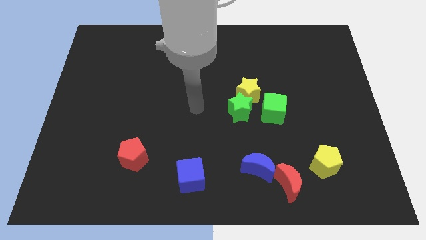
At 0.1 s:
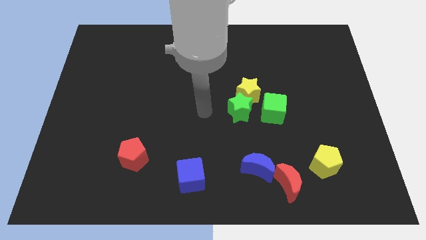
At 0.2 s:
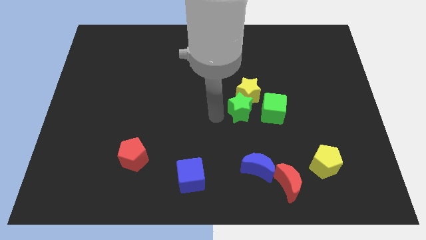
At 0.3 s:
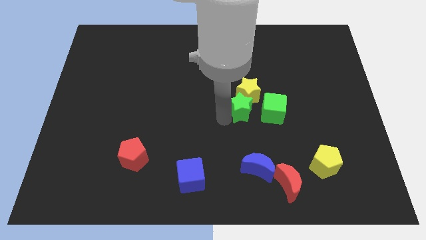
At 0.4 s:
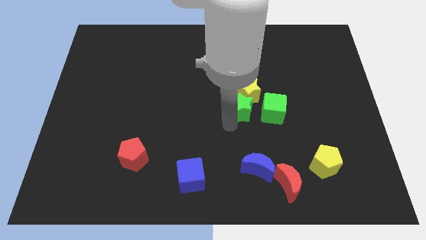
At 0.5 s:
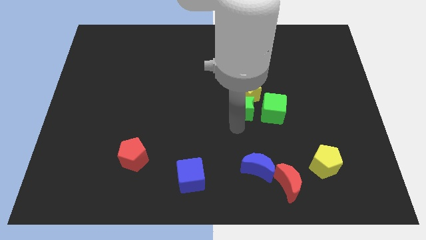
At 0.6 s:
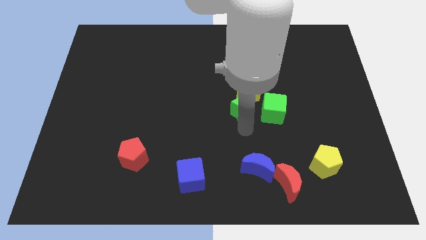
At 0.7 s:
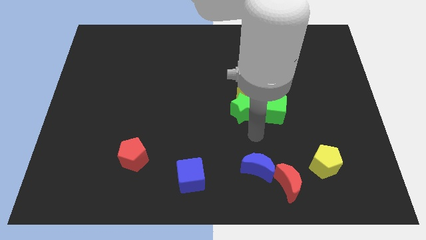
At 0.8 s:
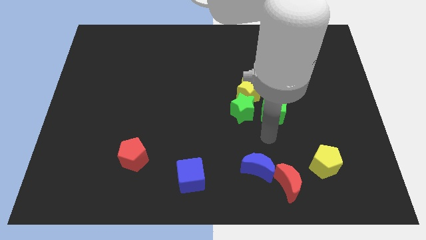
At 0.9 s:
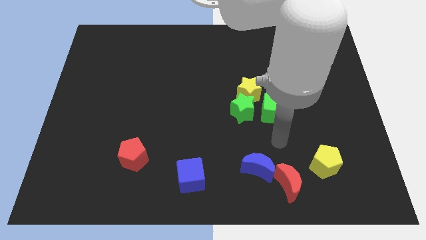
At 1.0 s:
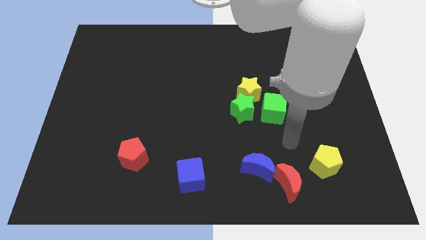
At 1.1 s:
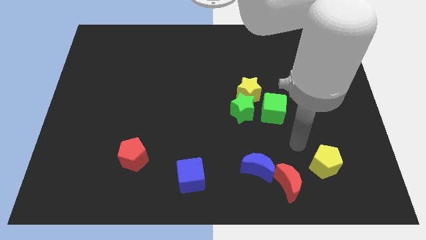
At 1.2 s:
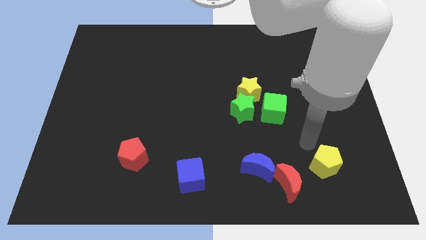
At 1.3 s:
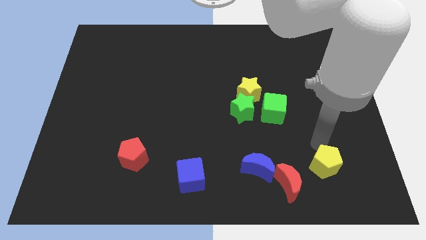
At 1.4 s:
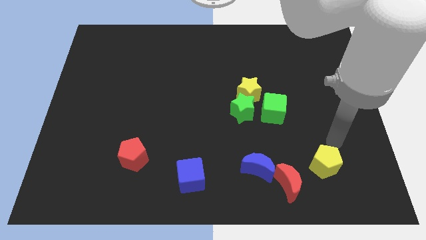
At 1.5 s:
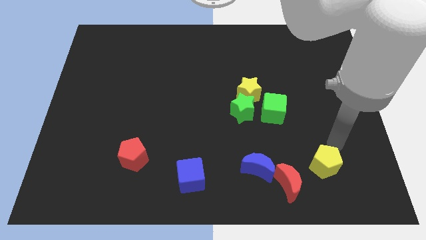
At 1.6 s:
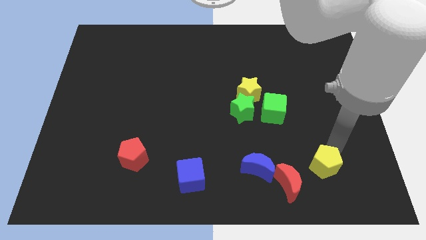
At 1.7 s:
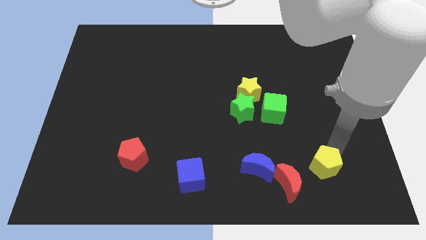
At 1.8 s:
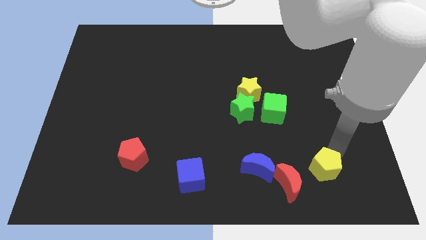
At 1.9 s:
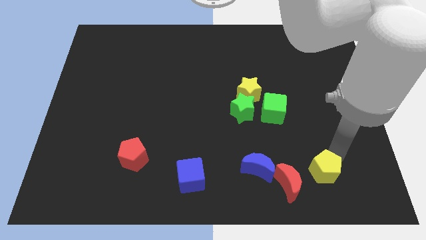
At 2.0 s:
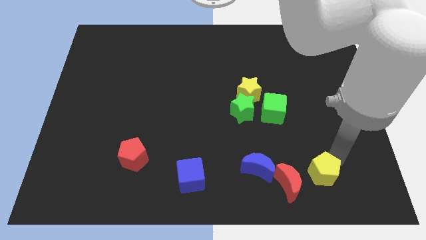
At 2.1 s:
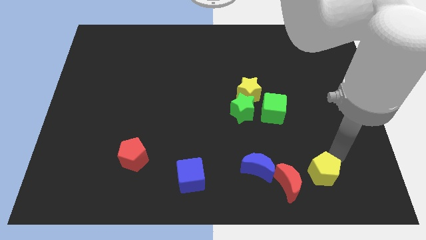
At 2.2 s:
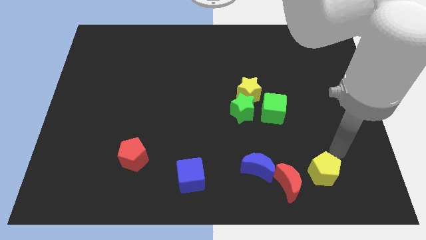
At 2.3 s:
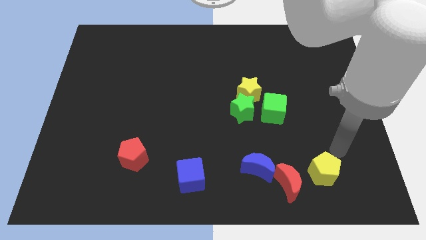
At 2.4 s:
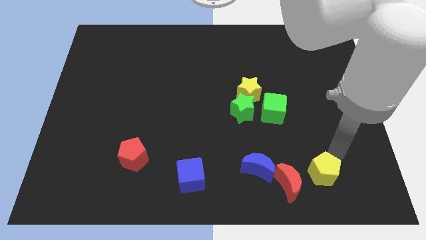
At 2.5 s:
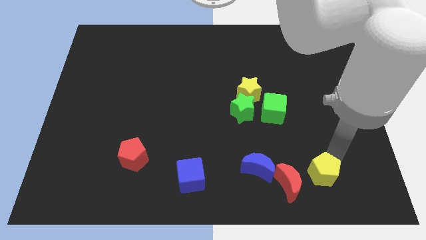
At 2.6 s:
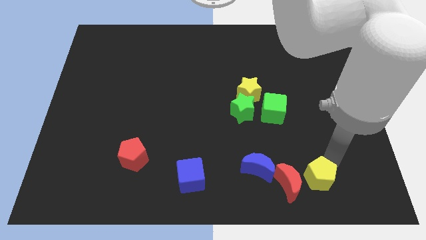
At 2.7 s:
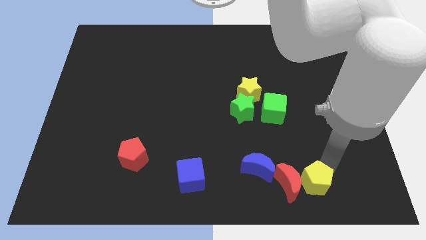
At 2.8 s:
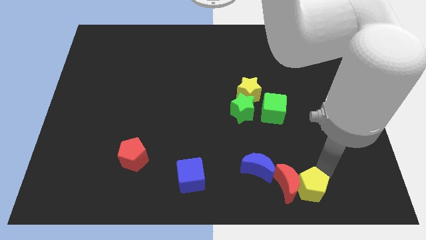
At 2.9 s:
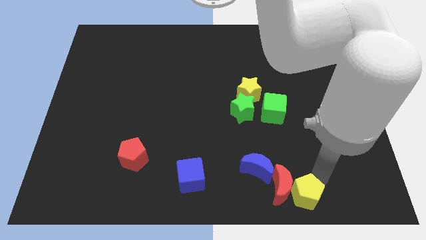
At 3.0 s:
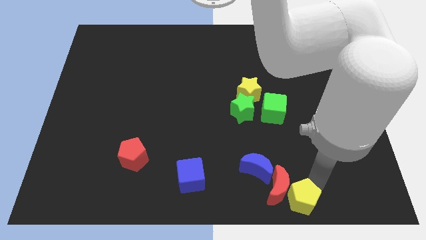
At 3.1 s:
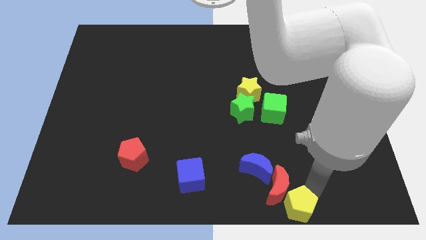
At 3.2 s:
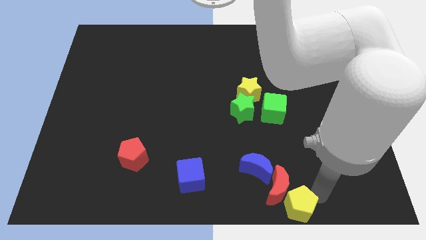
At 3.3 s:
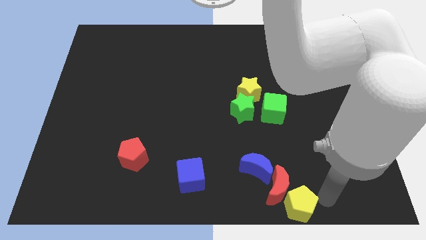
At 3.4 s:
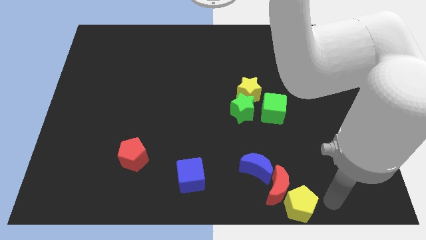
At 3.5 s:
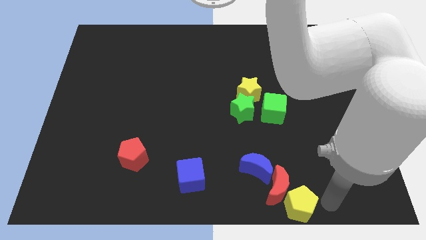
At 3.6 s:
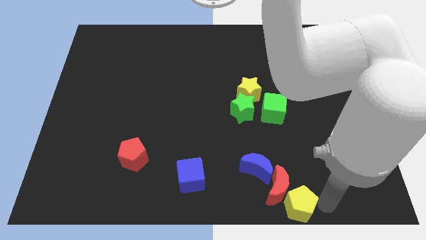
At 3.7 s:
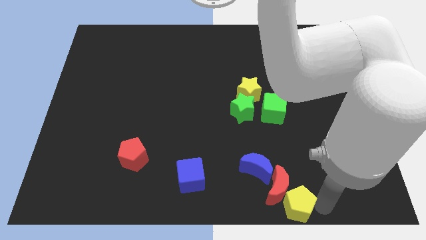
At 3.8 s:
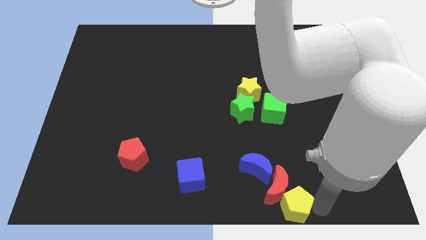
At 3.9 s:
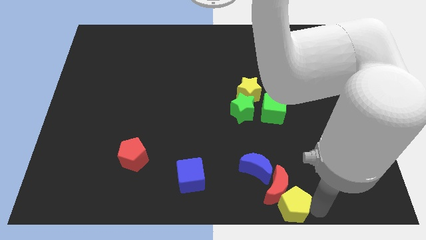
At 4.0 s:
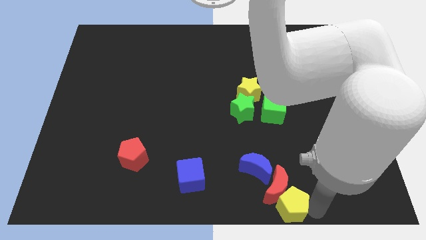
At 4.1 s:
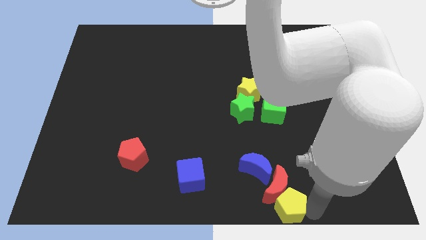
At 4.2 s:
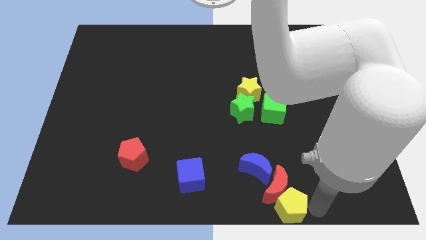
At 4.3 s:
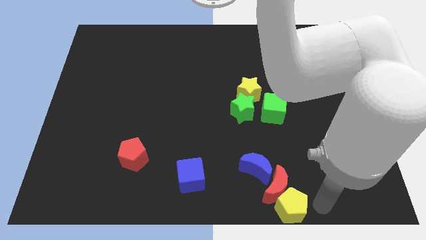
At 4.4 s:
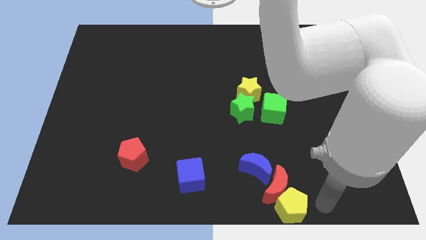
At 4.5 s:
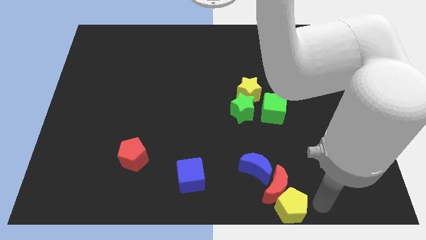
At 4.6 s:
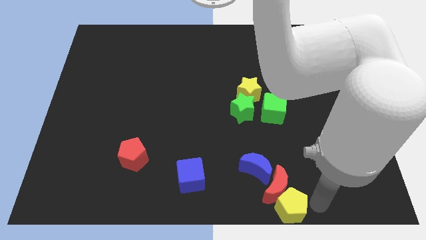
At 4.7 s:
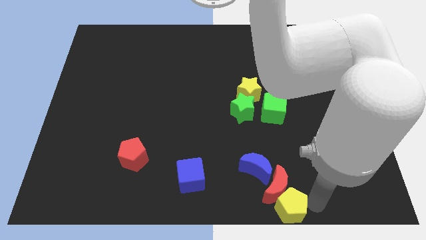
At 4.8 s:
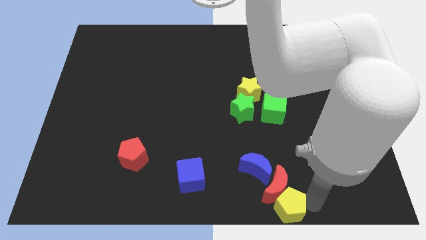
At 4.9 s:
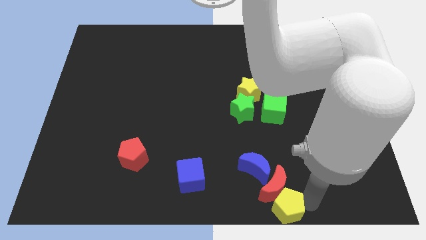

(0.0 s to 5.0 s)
put the yellow pentagon to the bottom

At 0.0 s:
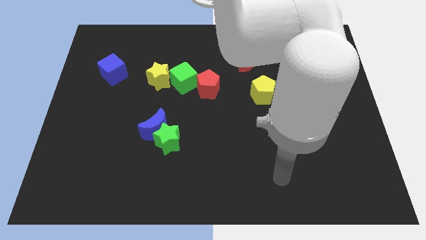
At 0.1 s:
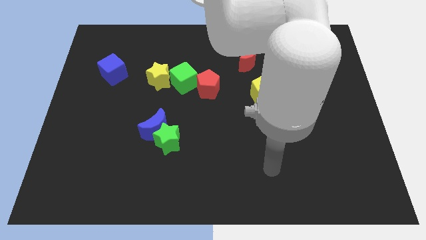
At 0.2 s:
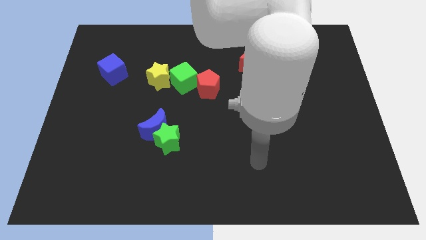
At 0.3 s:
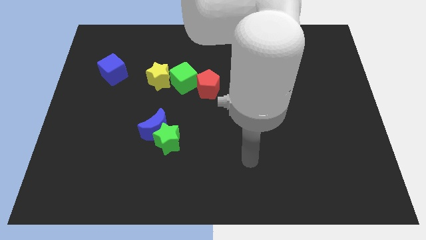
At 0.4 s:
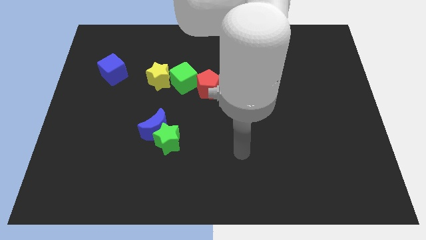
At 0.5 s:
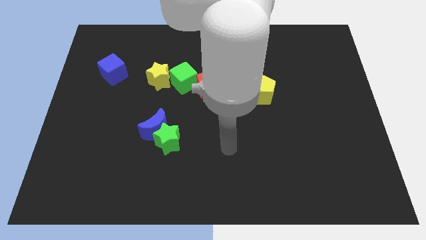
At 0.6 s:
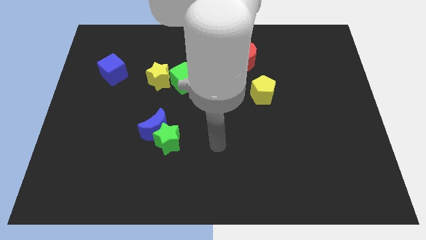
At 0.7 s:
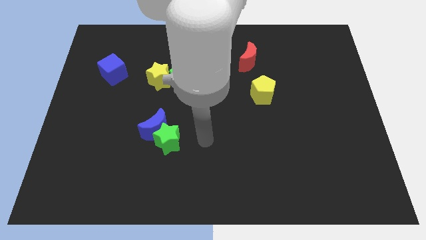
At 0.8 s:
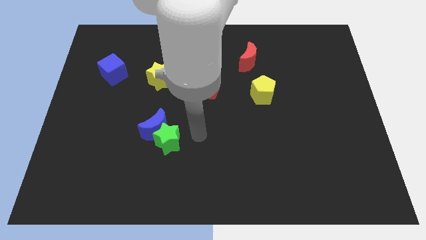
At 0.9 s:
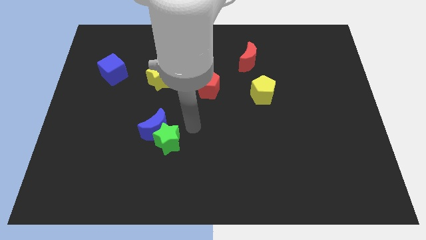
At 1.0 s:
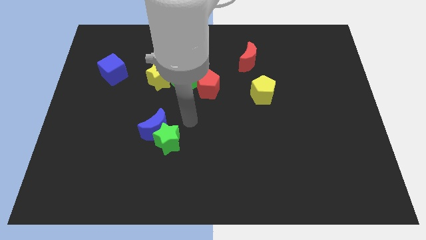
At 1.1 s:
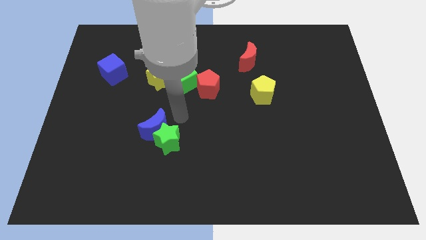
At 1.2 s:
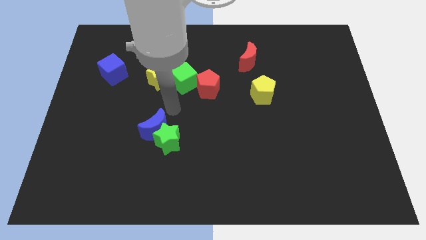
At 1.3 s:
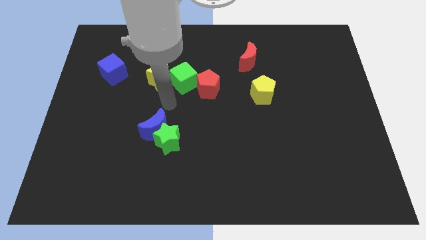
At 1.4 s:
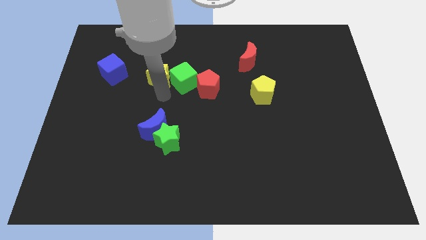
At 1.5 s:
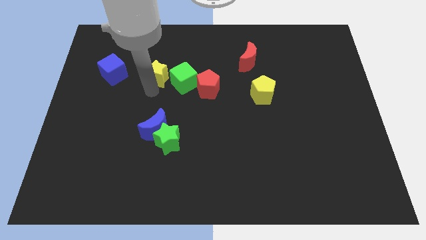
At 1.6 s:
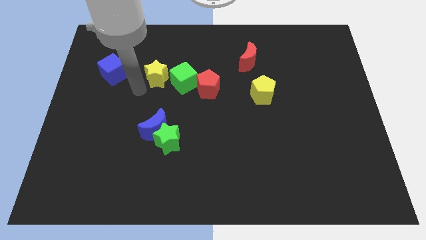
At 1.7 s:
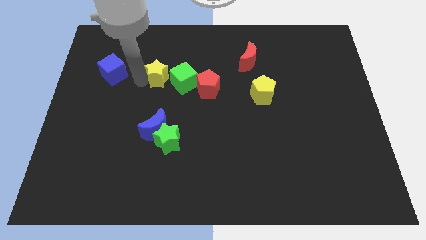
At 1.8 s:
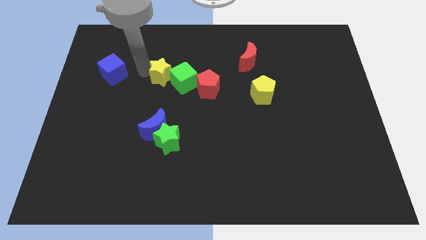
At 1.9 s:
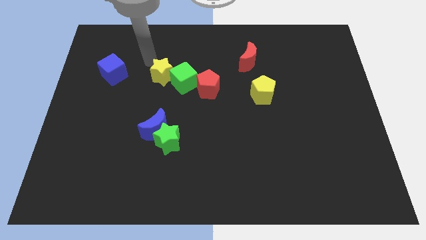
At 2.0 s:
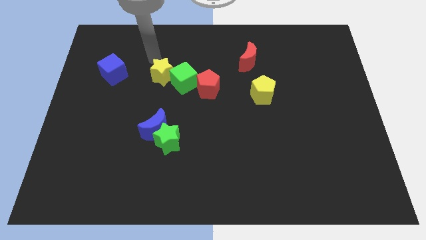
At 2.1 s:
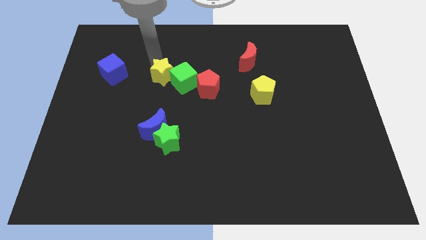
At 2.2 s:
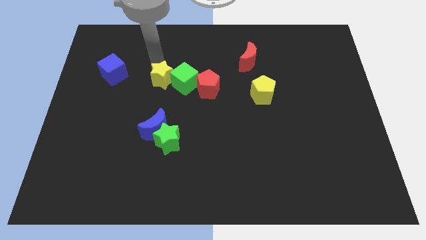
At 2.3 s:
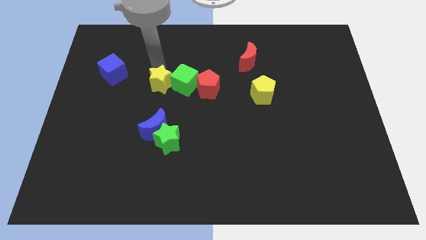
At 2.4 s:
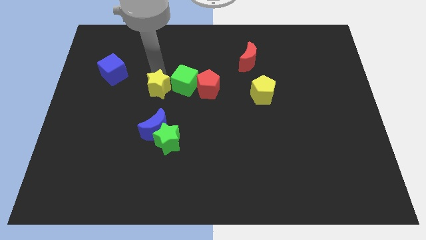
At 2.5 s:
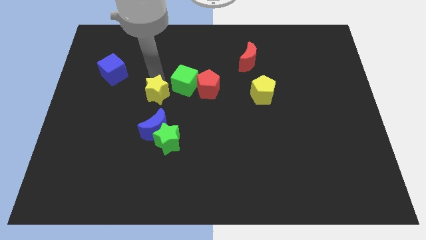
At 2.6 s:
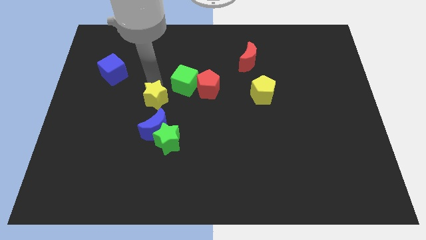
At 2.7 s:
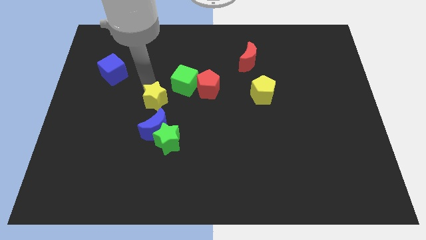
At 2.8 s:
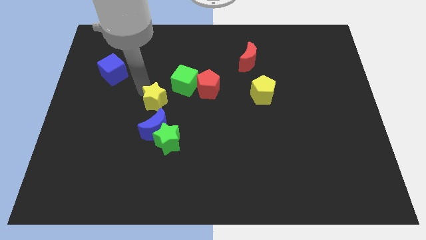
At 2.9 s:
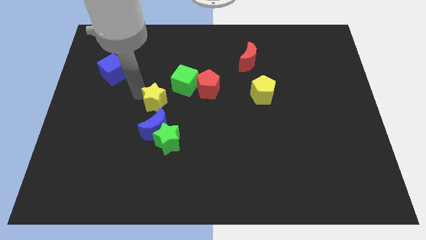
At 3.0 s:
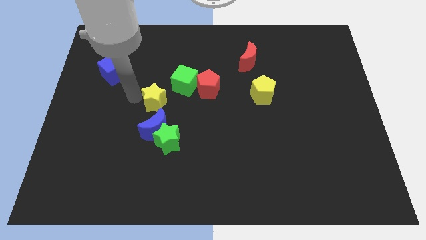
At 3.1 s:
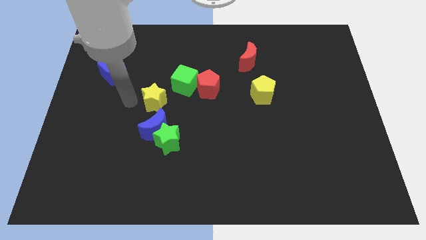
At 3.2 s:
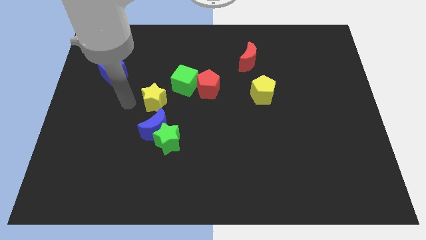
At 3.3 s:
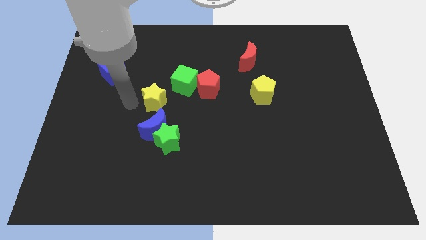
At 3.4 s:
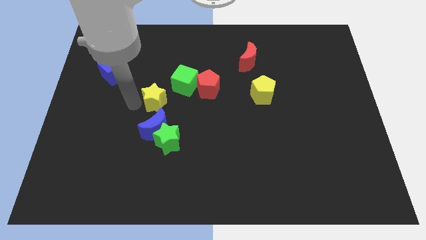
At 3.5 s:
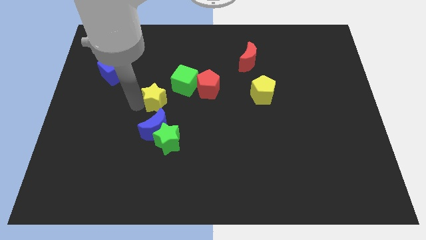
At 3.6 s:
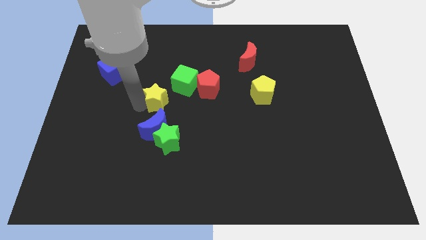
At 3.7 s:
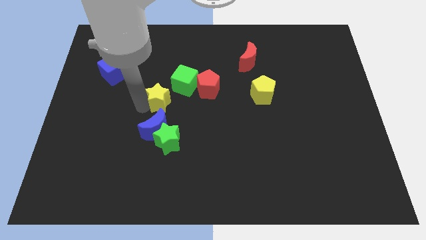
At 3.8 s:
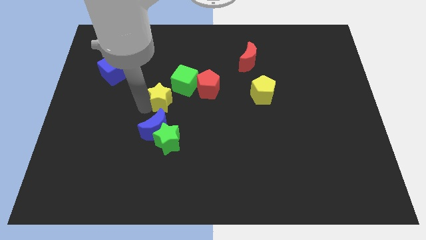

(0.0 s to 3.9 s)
put the yellow star to the middle of the board
